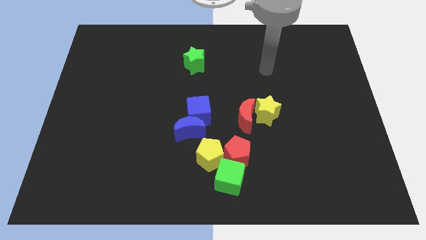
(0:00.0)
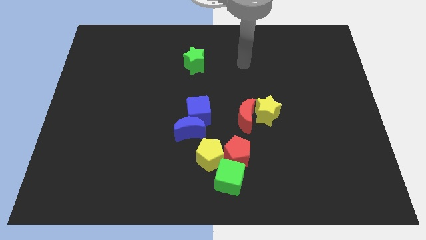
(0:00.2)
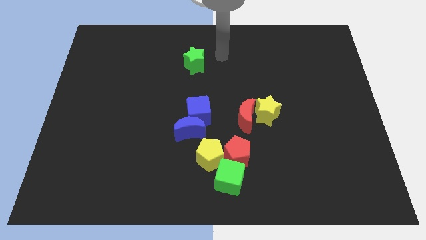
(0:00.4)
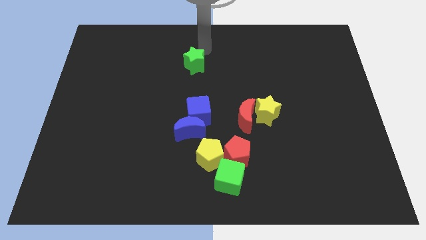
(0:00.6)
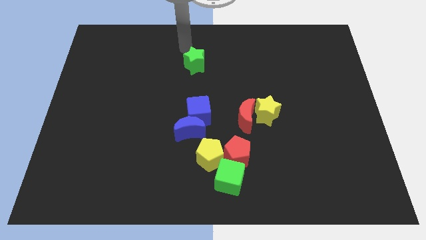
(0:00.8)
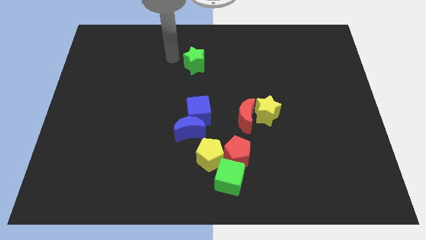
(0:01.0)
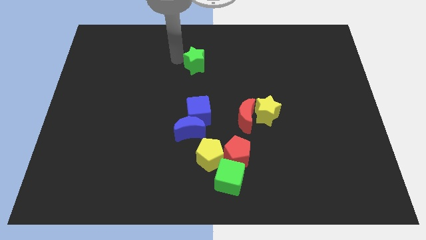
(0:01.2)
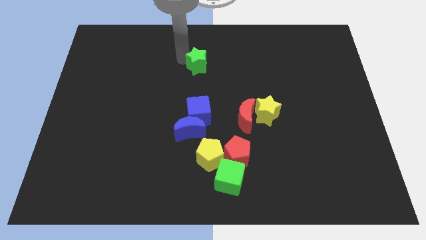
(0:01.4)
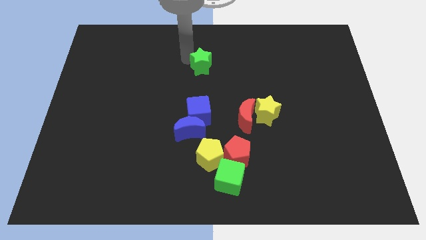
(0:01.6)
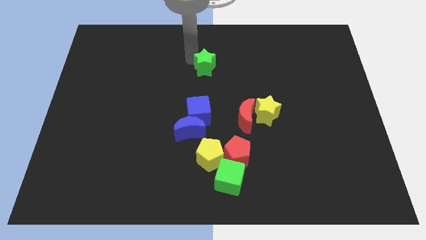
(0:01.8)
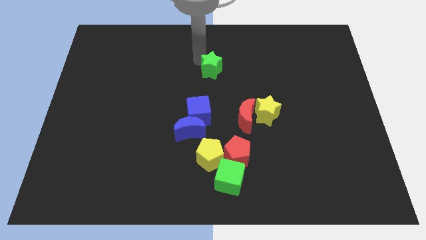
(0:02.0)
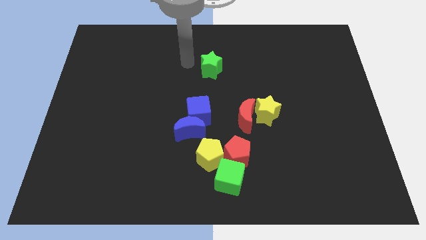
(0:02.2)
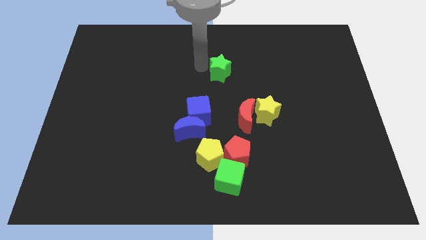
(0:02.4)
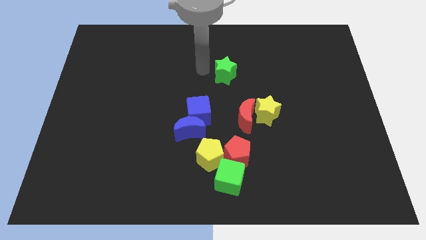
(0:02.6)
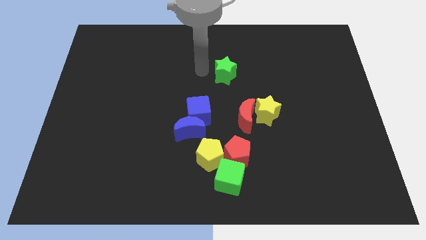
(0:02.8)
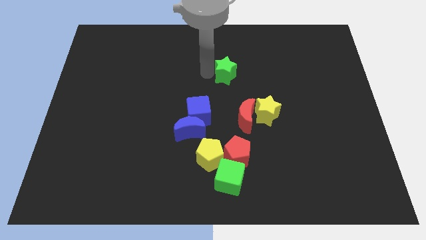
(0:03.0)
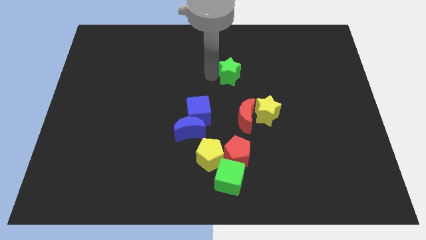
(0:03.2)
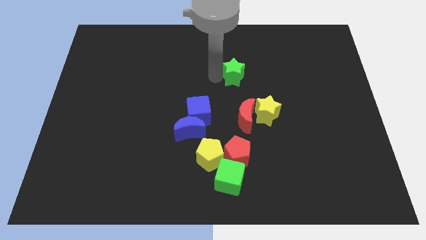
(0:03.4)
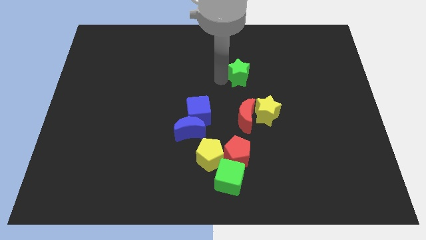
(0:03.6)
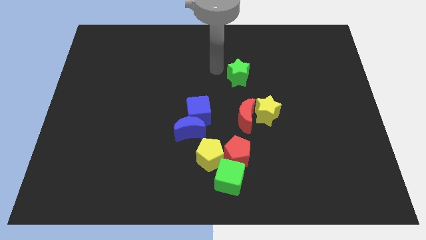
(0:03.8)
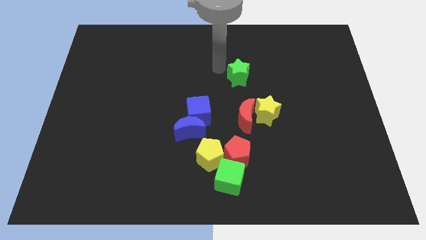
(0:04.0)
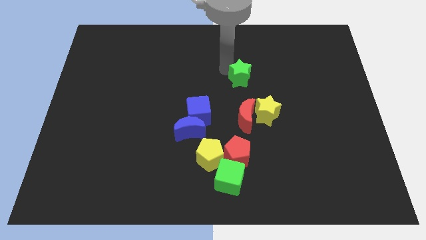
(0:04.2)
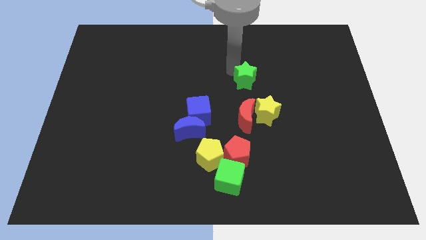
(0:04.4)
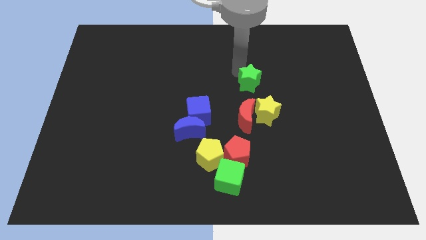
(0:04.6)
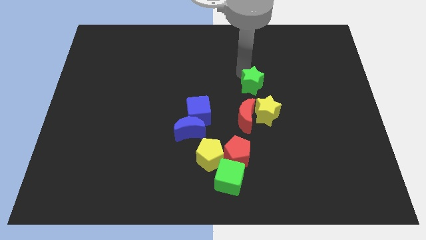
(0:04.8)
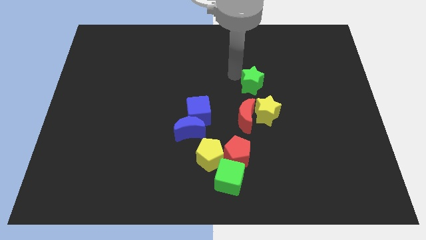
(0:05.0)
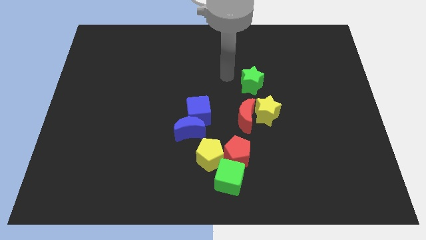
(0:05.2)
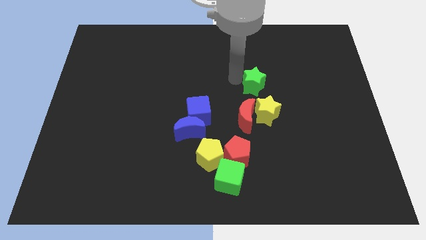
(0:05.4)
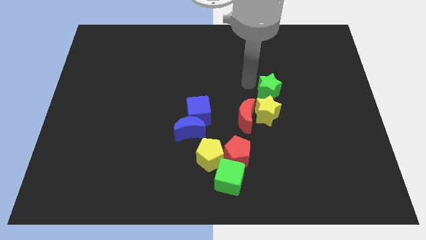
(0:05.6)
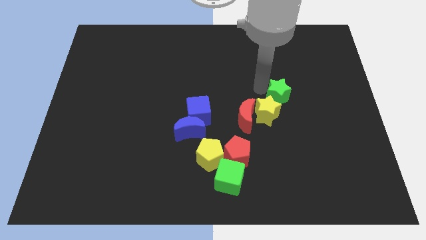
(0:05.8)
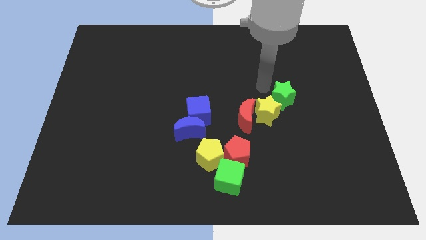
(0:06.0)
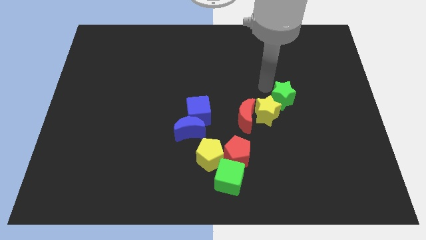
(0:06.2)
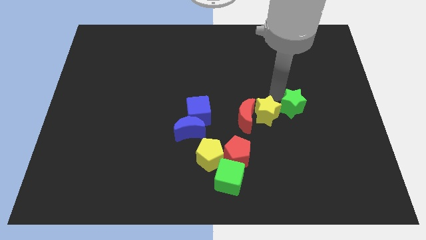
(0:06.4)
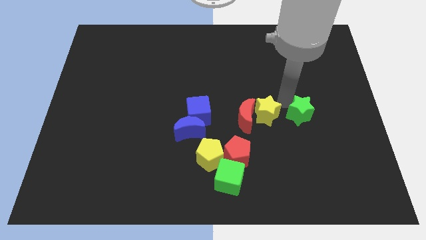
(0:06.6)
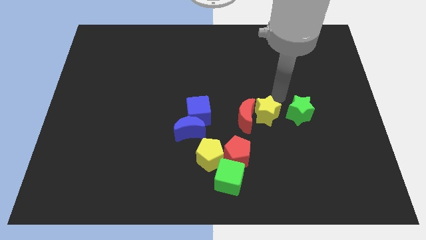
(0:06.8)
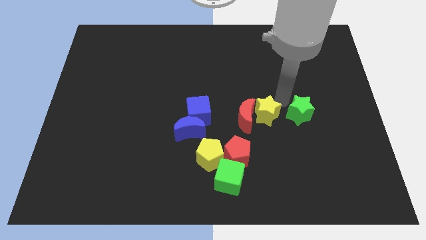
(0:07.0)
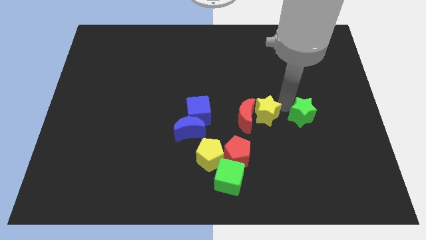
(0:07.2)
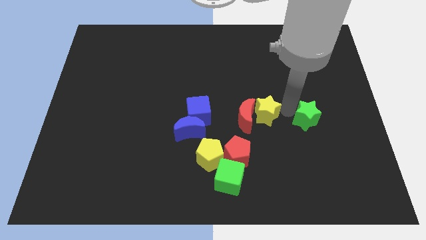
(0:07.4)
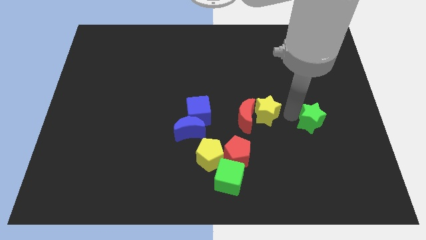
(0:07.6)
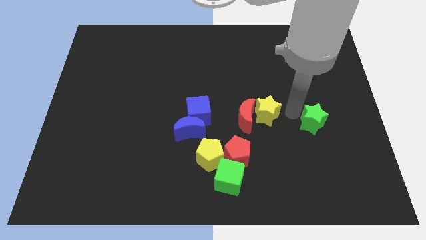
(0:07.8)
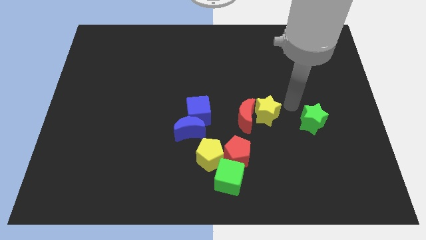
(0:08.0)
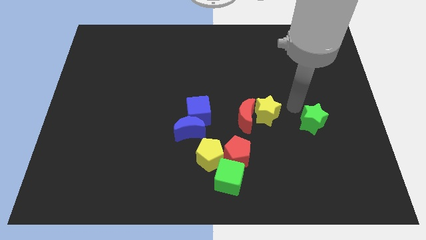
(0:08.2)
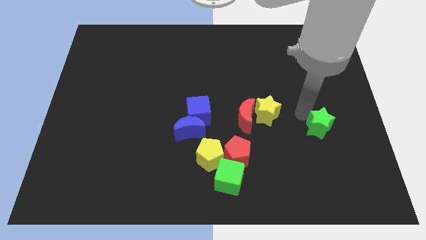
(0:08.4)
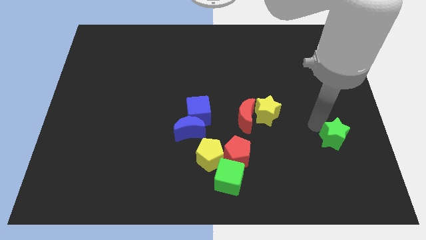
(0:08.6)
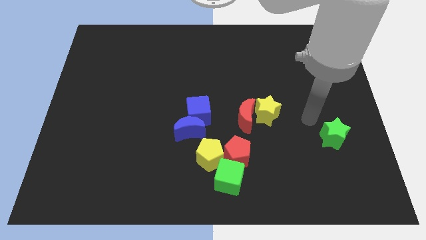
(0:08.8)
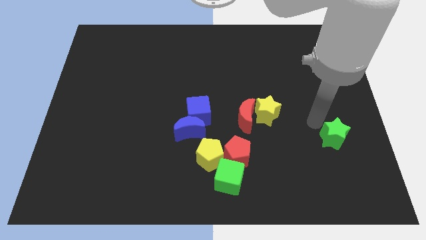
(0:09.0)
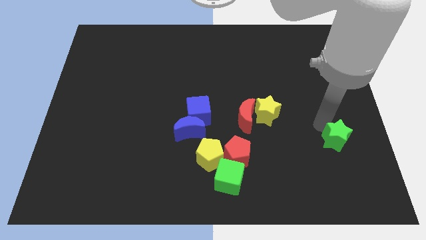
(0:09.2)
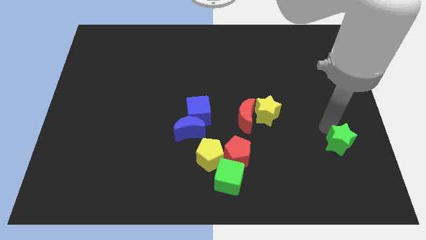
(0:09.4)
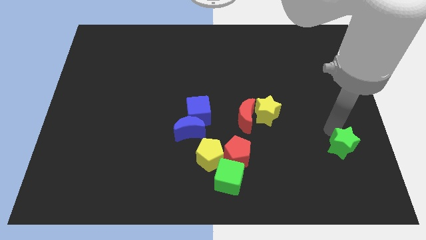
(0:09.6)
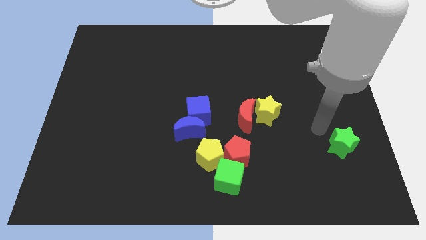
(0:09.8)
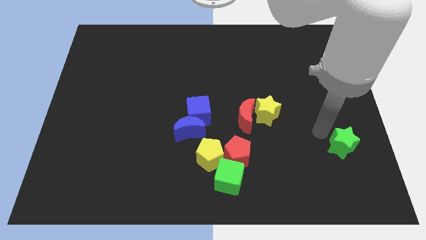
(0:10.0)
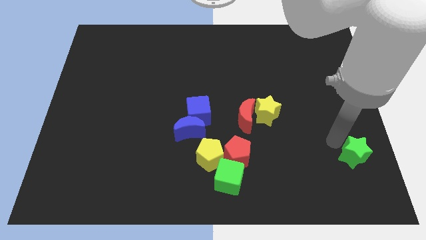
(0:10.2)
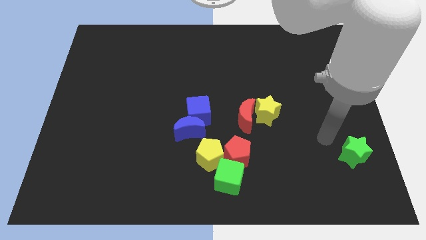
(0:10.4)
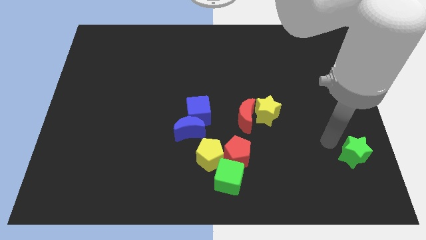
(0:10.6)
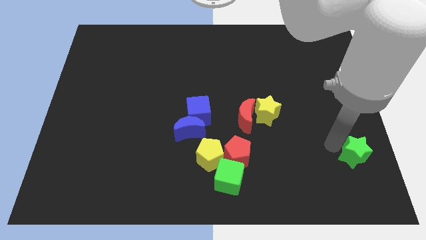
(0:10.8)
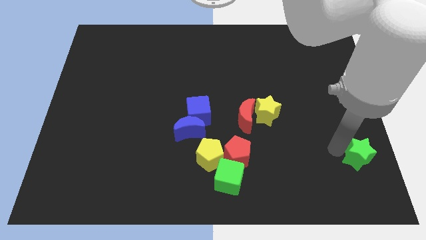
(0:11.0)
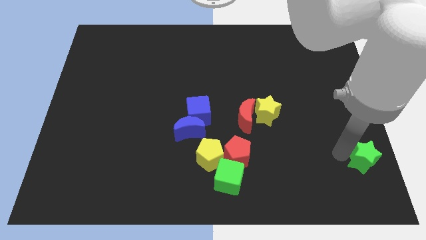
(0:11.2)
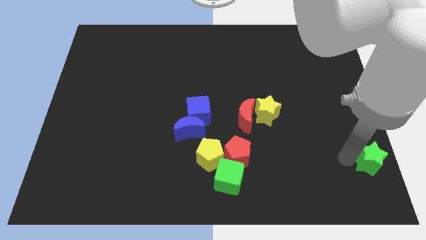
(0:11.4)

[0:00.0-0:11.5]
put the green star to the bottom right of the board
